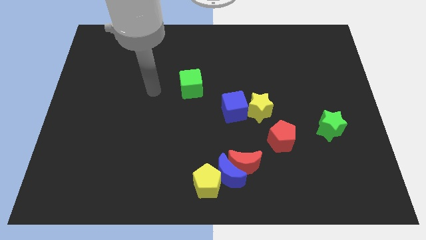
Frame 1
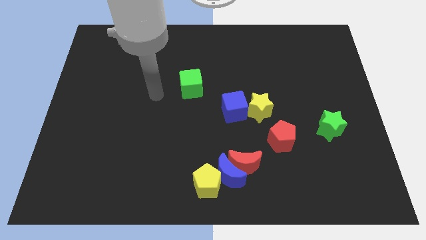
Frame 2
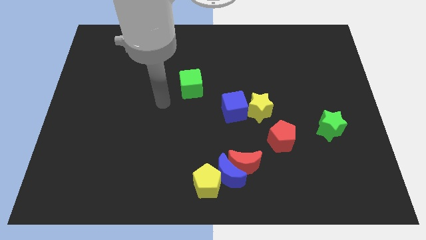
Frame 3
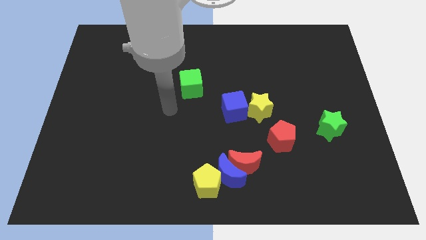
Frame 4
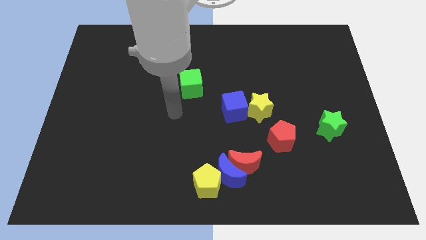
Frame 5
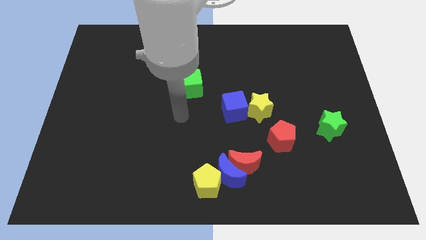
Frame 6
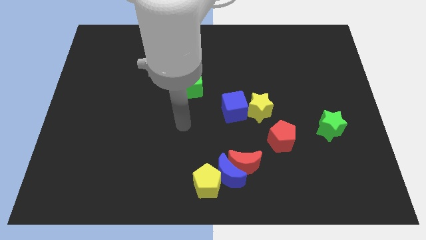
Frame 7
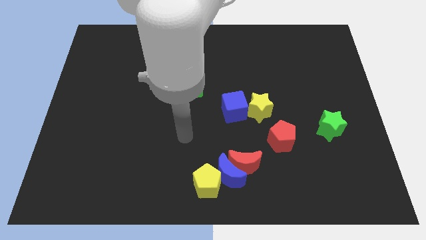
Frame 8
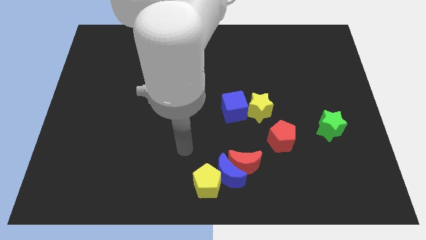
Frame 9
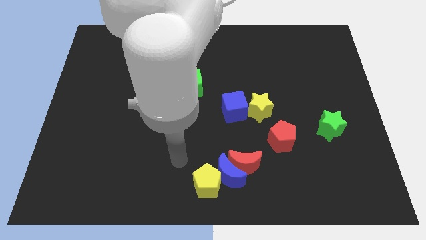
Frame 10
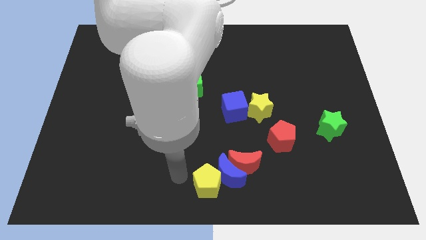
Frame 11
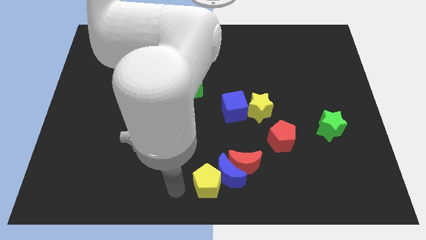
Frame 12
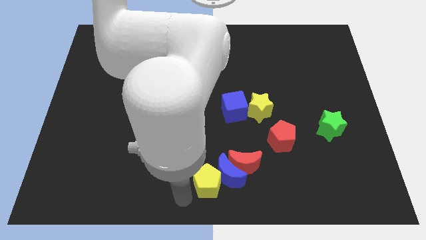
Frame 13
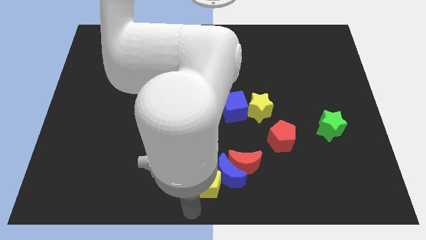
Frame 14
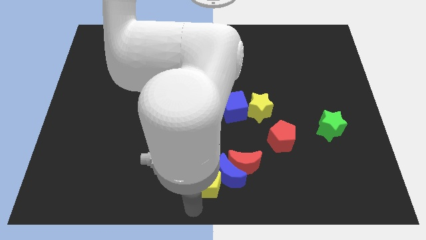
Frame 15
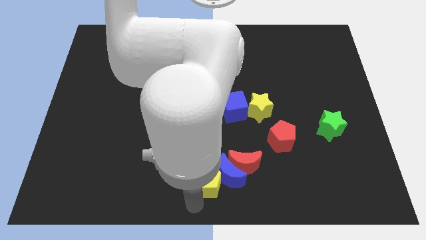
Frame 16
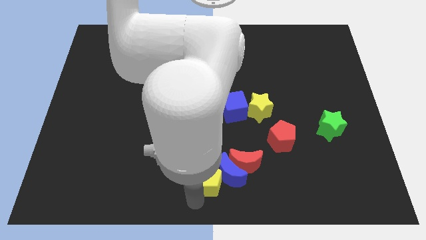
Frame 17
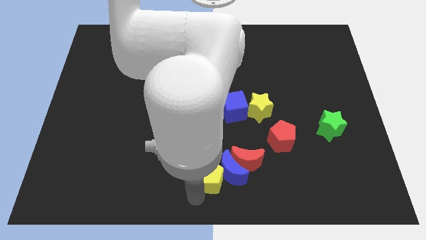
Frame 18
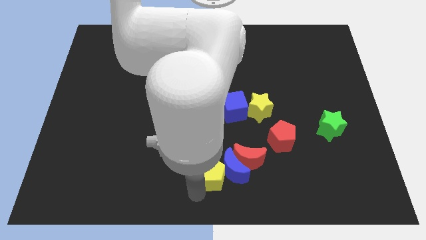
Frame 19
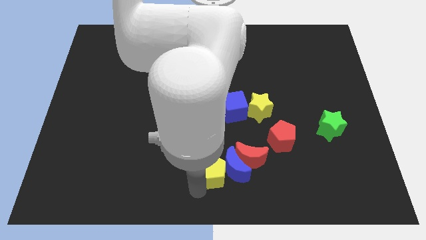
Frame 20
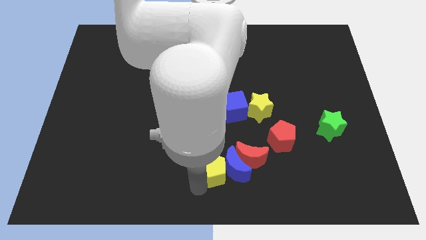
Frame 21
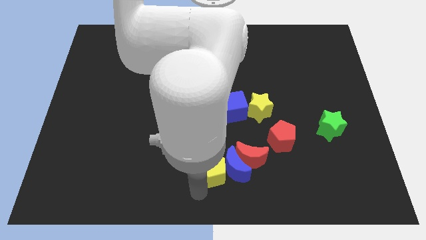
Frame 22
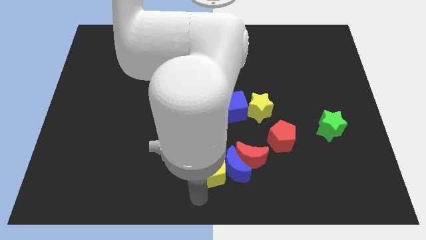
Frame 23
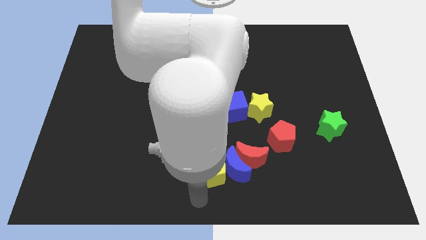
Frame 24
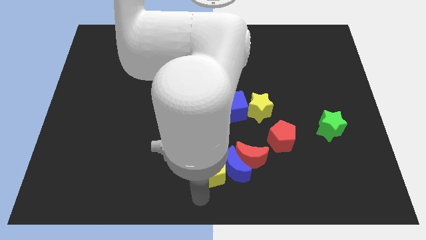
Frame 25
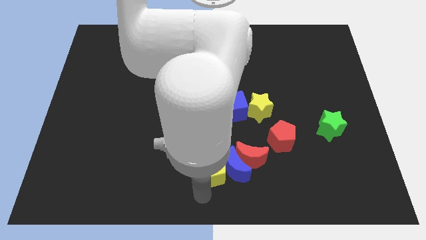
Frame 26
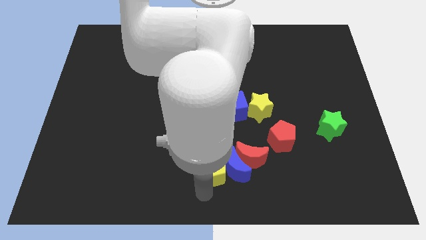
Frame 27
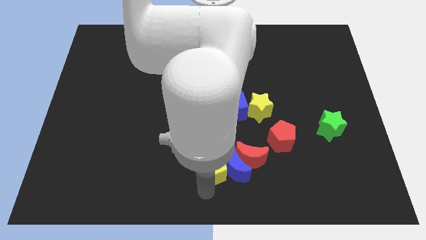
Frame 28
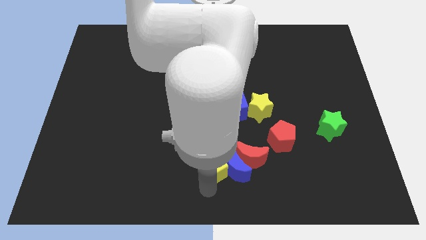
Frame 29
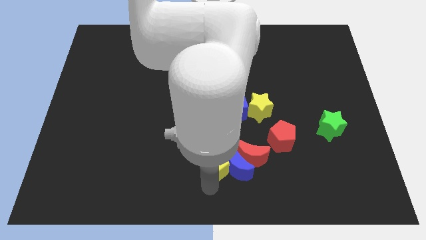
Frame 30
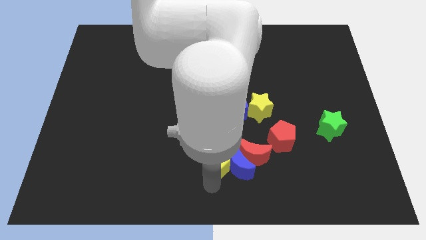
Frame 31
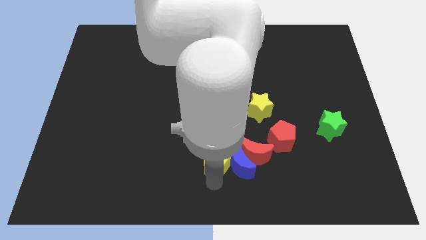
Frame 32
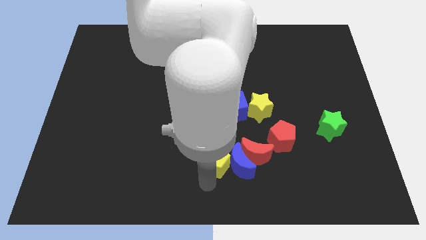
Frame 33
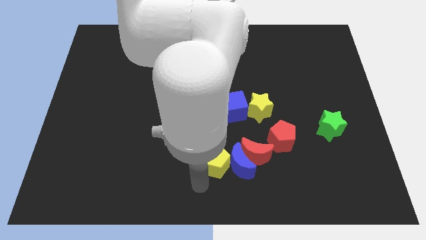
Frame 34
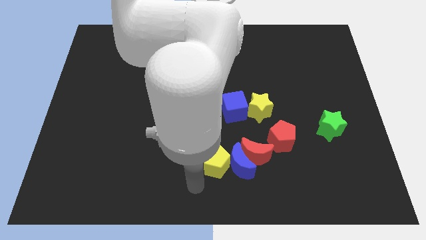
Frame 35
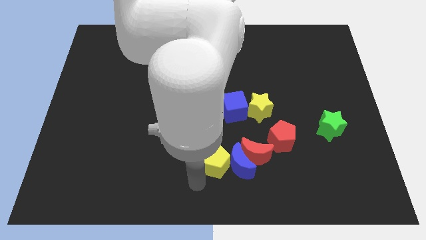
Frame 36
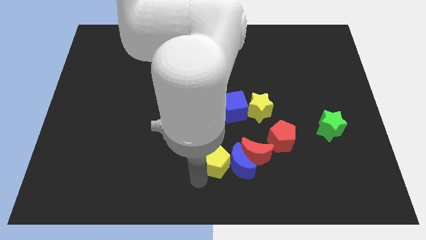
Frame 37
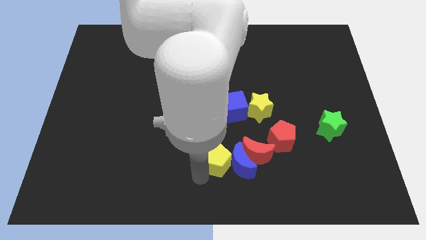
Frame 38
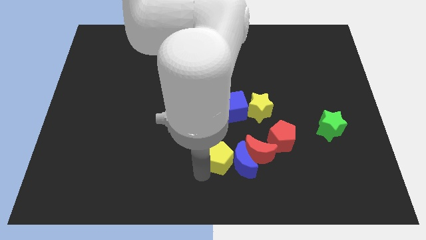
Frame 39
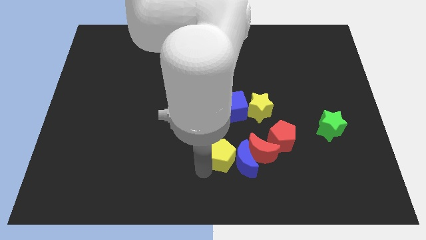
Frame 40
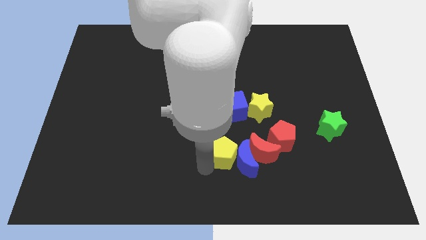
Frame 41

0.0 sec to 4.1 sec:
push the yellow pentagon a little up and to the right

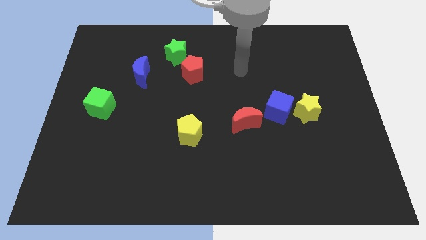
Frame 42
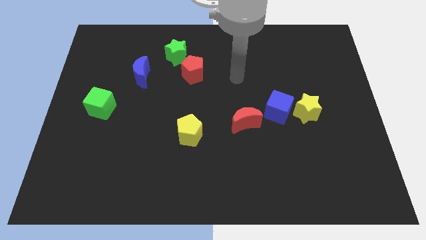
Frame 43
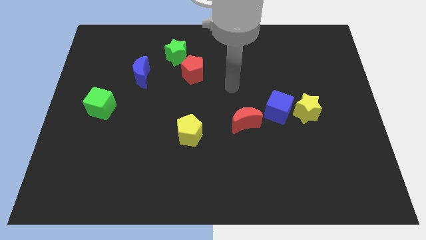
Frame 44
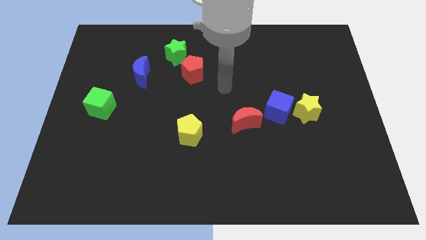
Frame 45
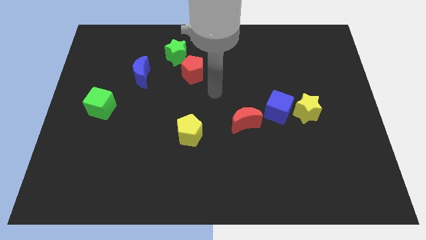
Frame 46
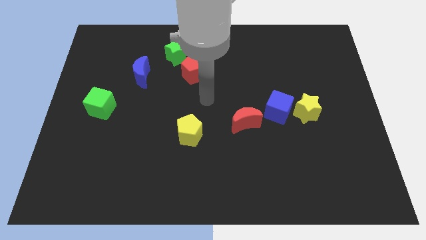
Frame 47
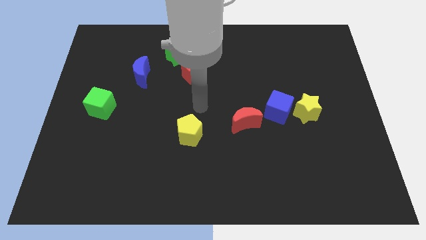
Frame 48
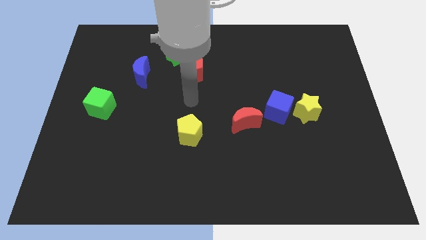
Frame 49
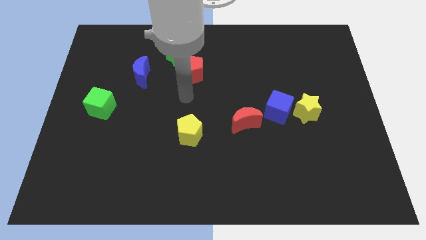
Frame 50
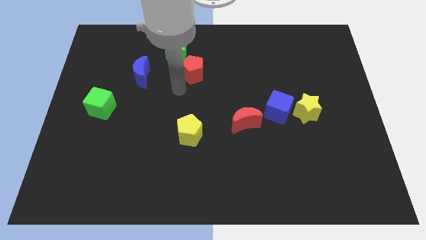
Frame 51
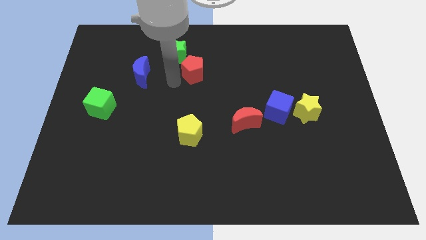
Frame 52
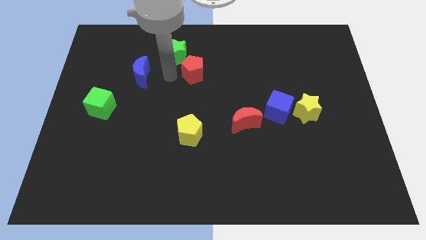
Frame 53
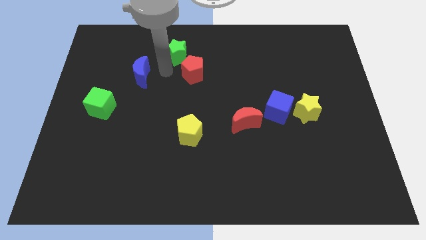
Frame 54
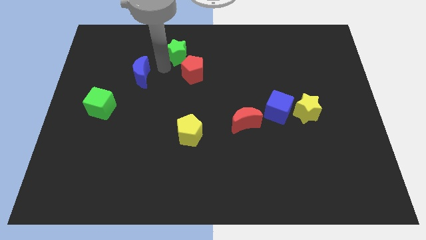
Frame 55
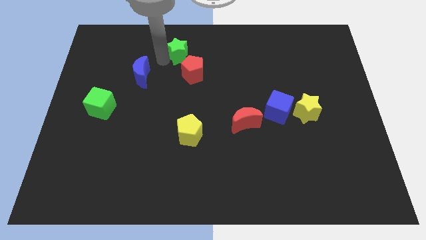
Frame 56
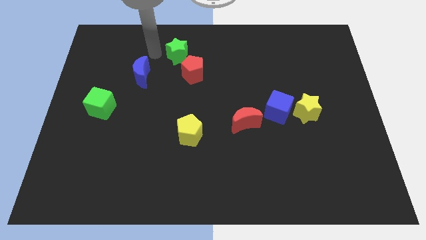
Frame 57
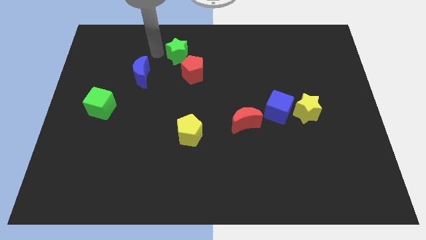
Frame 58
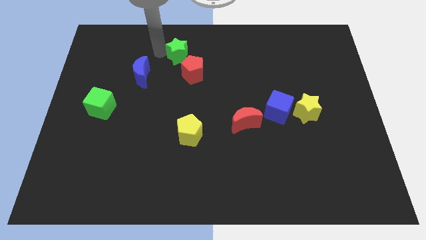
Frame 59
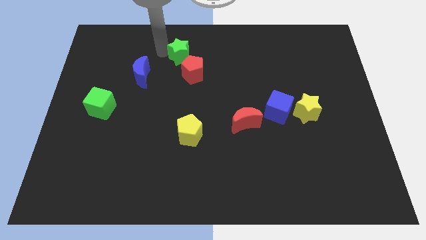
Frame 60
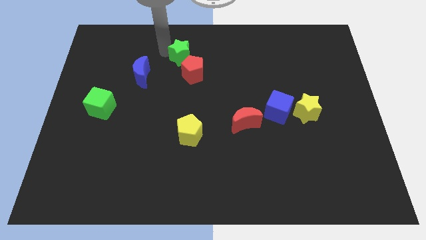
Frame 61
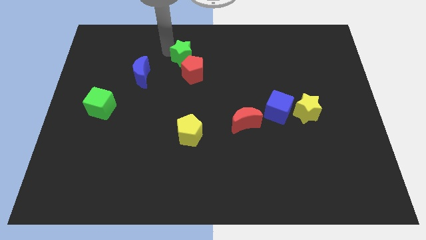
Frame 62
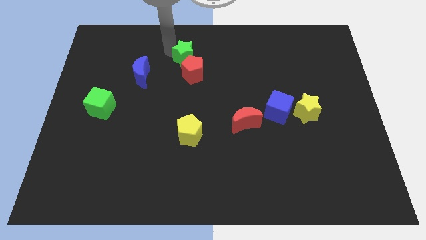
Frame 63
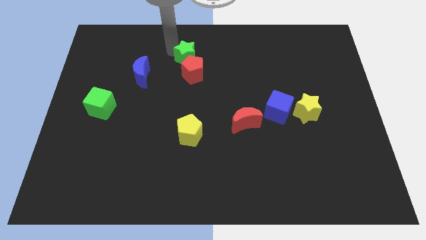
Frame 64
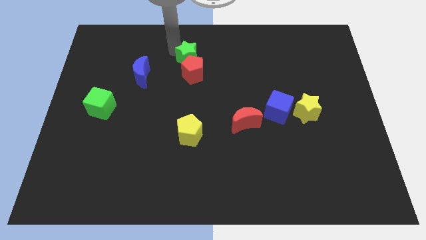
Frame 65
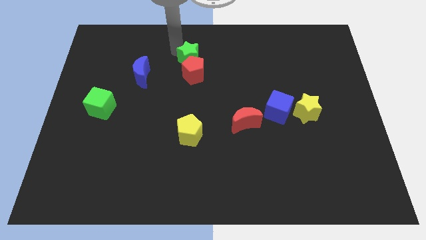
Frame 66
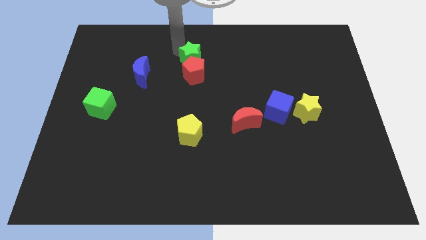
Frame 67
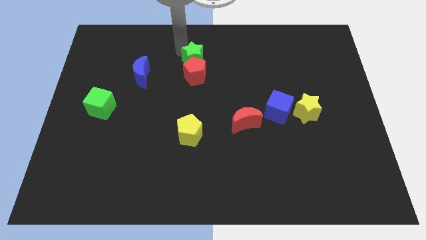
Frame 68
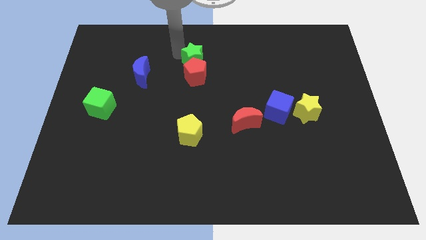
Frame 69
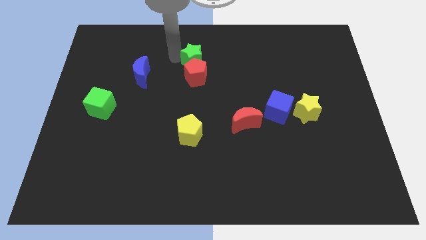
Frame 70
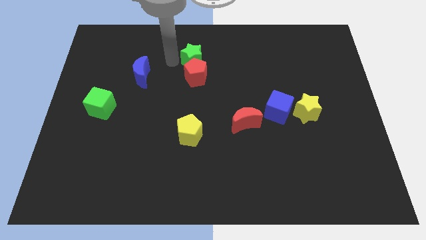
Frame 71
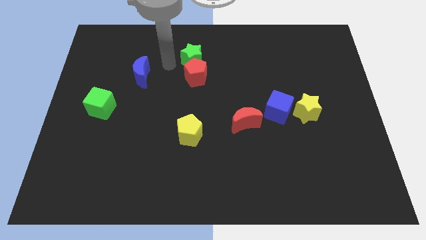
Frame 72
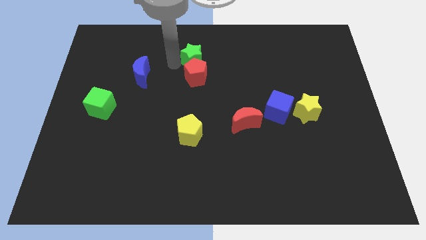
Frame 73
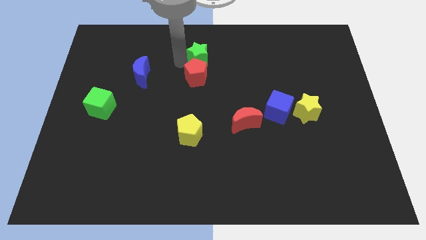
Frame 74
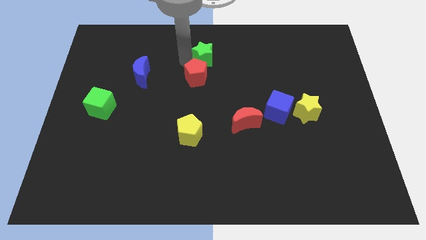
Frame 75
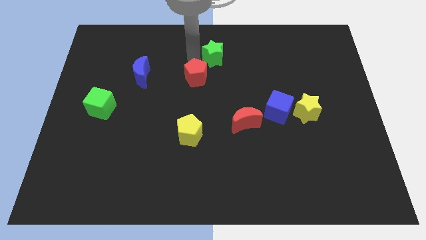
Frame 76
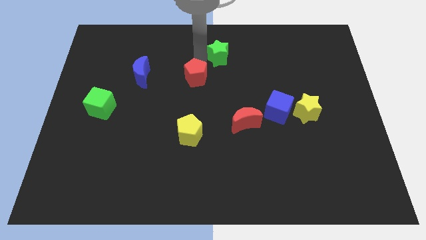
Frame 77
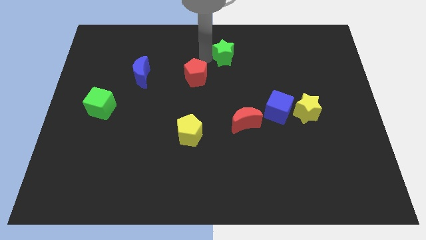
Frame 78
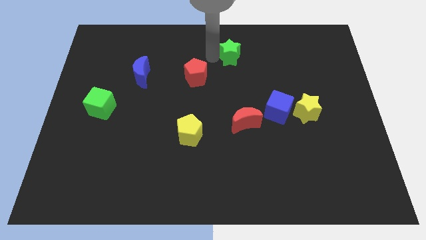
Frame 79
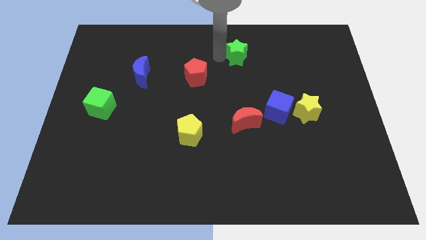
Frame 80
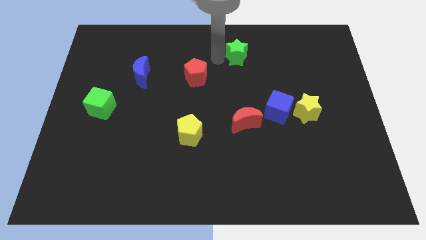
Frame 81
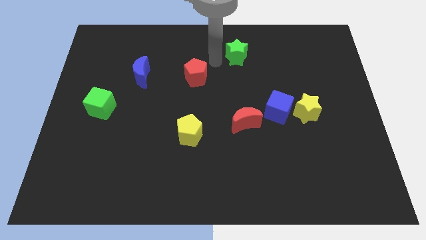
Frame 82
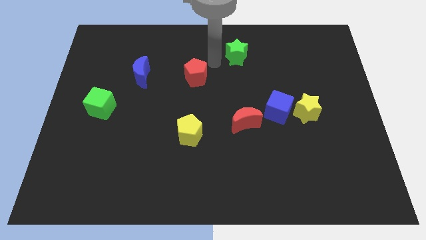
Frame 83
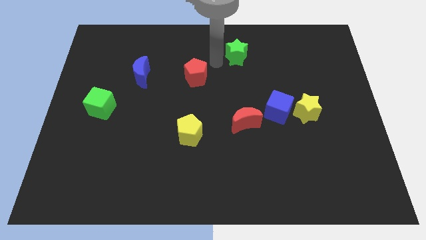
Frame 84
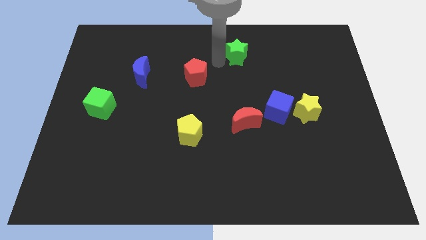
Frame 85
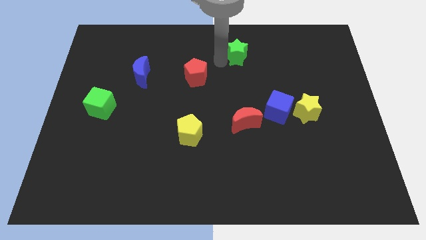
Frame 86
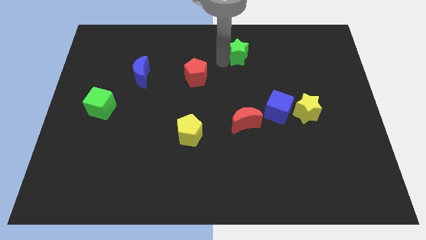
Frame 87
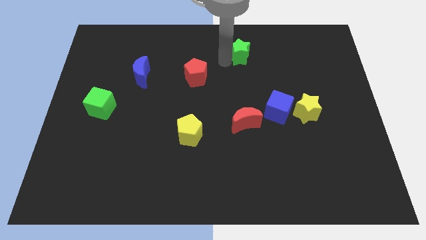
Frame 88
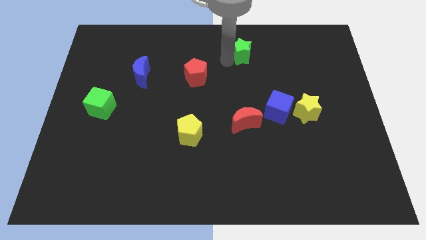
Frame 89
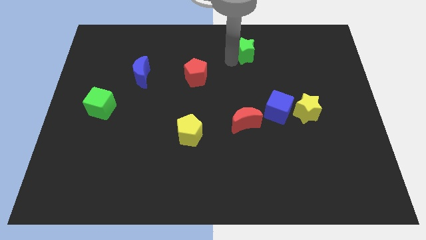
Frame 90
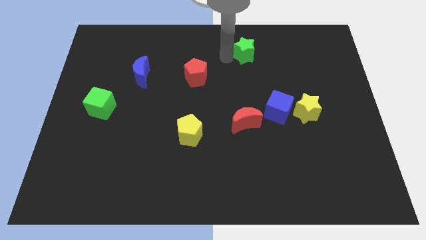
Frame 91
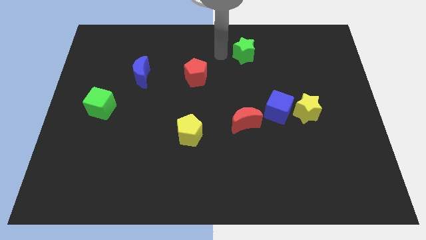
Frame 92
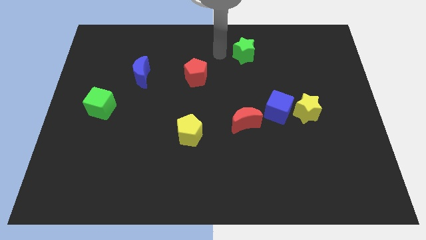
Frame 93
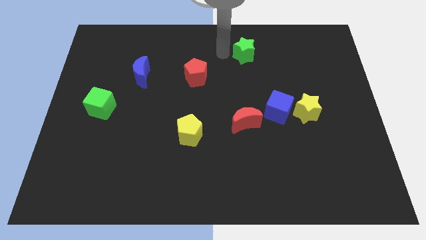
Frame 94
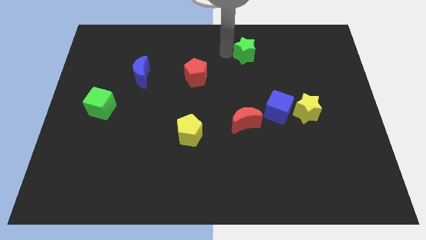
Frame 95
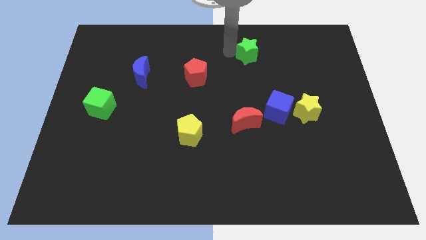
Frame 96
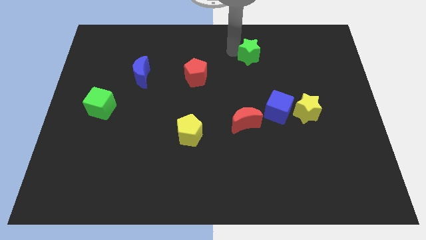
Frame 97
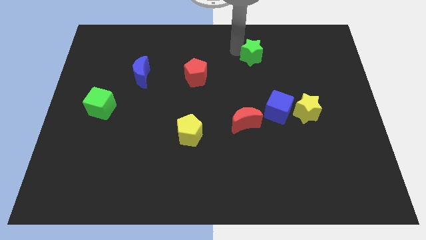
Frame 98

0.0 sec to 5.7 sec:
slide the green star right
